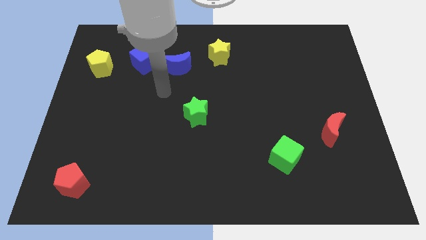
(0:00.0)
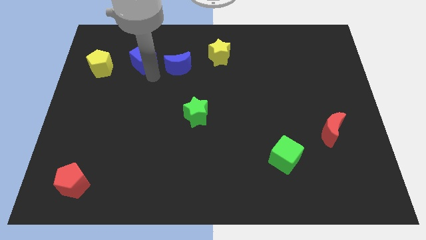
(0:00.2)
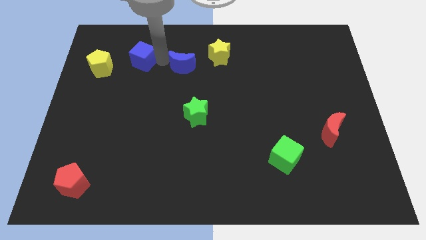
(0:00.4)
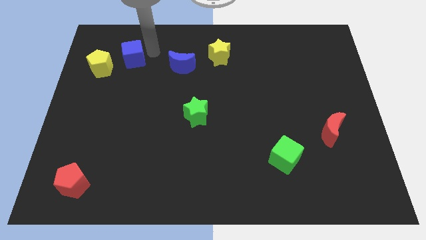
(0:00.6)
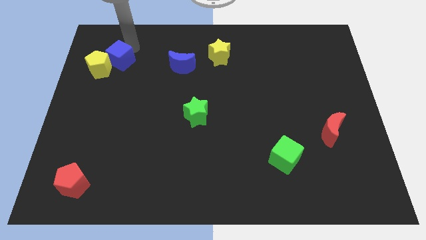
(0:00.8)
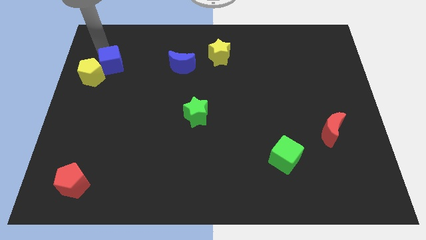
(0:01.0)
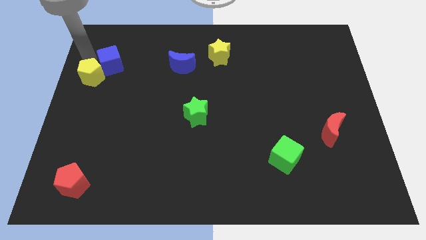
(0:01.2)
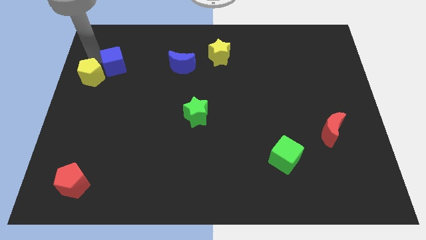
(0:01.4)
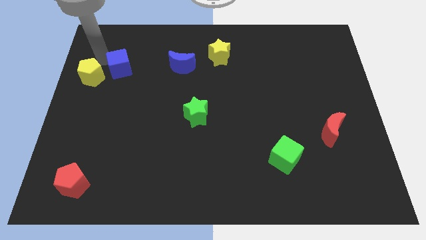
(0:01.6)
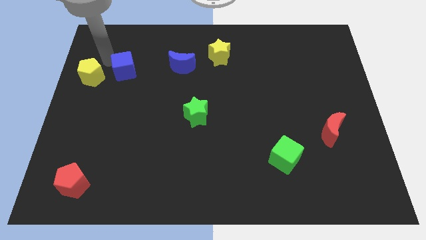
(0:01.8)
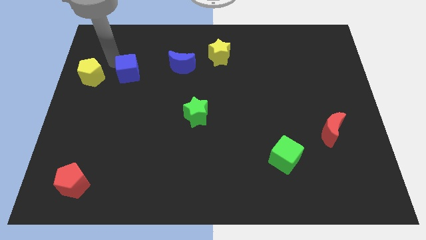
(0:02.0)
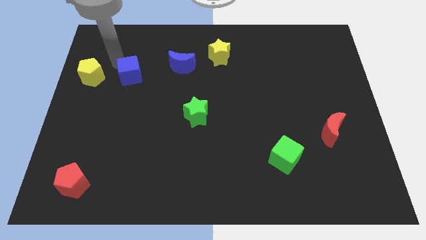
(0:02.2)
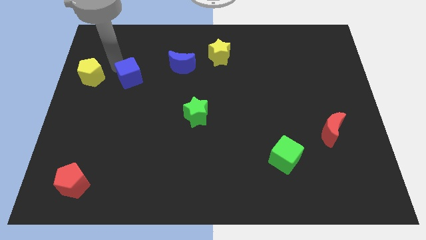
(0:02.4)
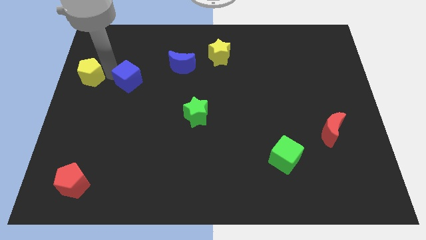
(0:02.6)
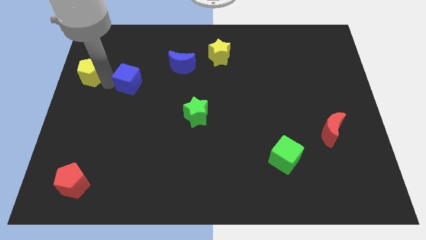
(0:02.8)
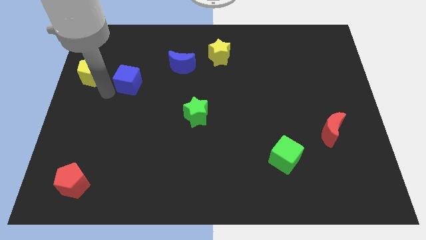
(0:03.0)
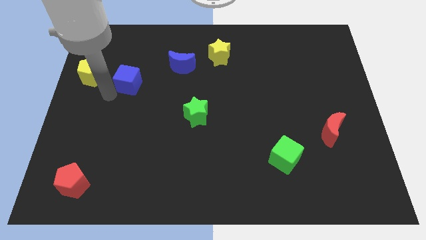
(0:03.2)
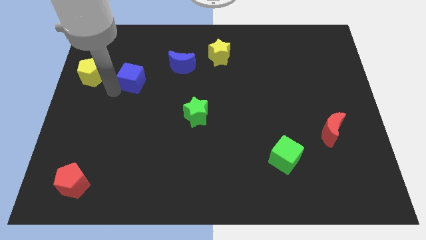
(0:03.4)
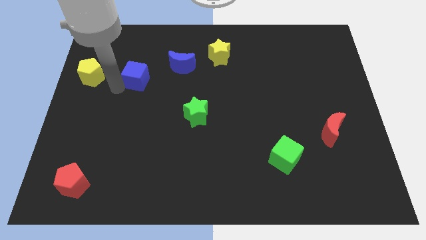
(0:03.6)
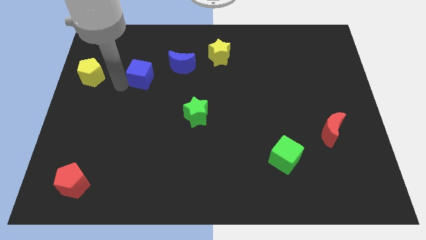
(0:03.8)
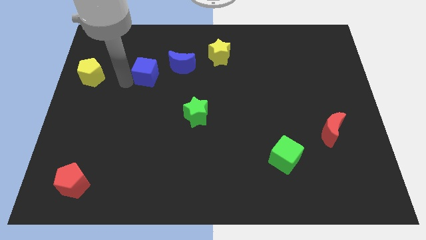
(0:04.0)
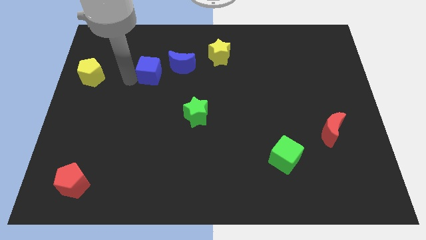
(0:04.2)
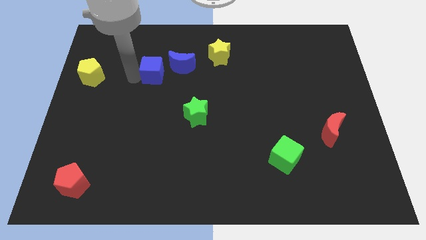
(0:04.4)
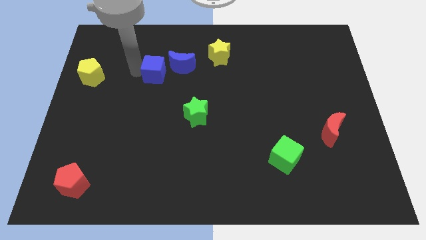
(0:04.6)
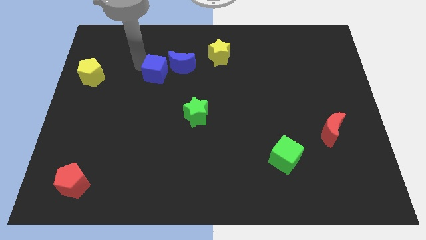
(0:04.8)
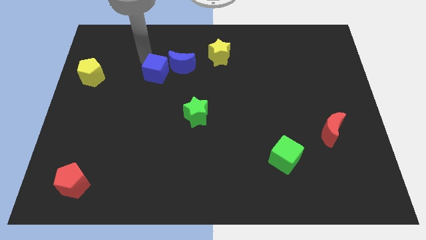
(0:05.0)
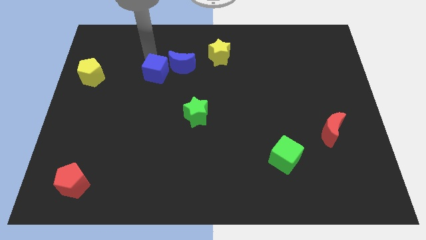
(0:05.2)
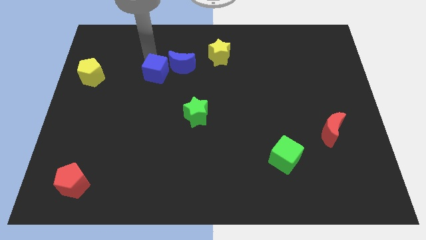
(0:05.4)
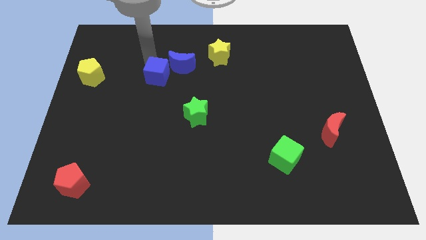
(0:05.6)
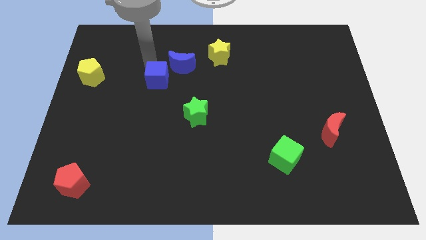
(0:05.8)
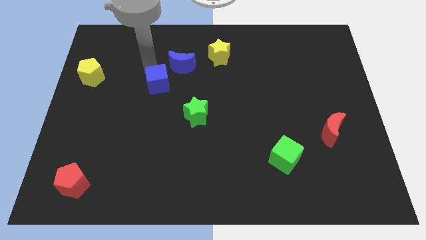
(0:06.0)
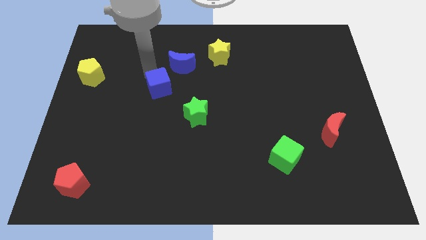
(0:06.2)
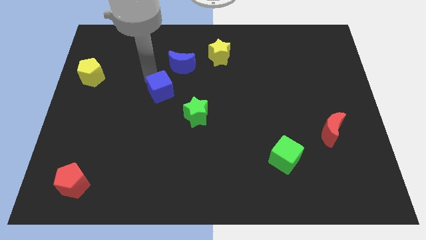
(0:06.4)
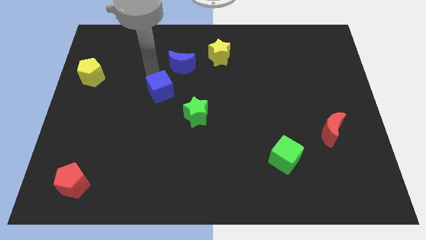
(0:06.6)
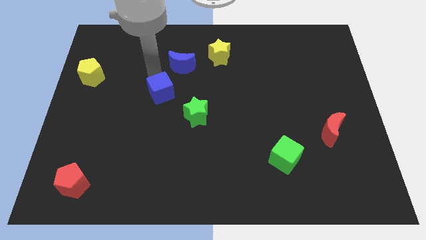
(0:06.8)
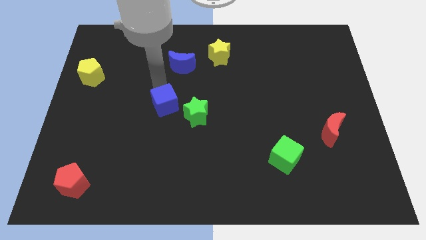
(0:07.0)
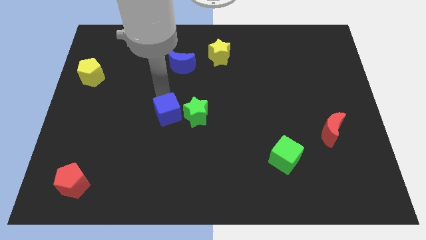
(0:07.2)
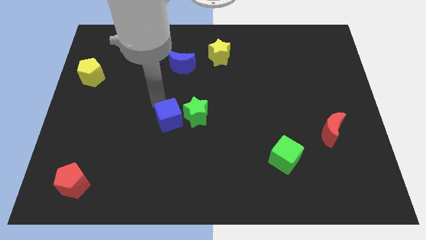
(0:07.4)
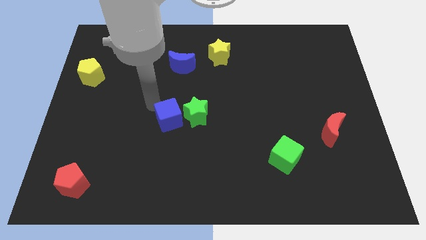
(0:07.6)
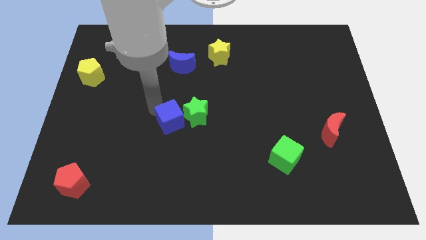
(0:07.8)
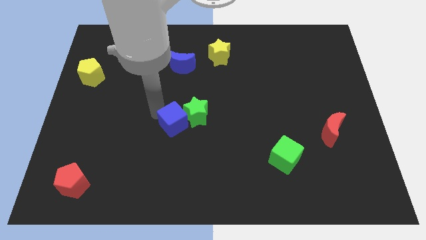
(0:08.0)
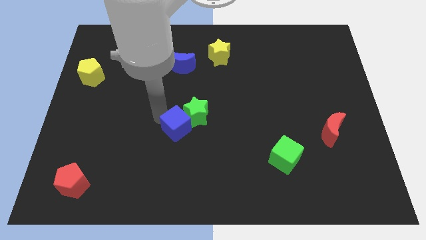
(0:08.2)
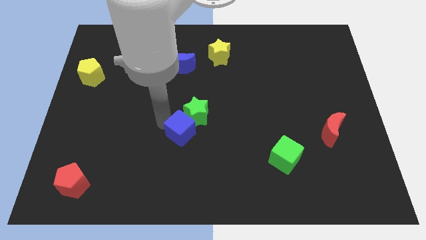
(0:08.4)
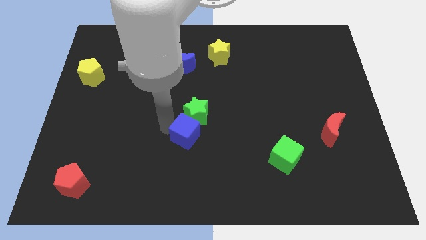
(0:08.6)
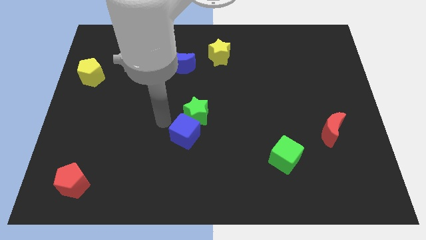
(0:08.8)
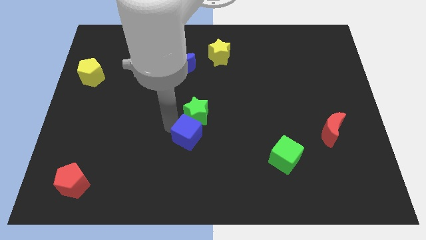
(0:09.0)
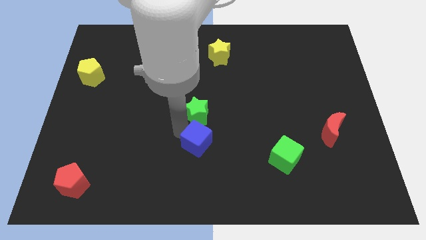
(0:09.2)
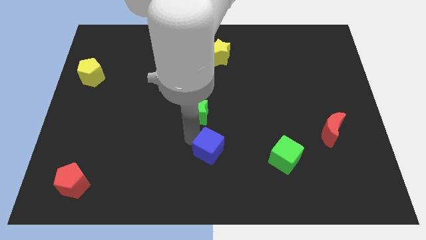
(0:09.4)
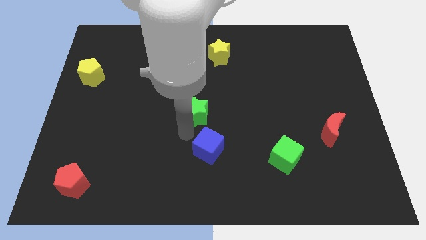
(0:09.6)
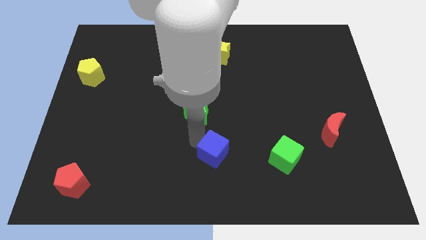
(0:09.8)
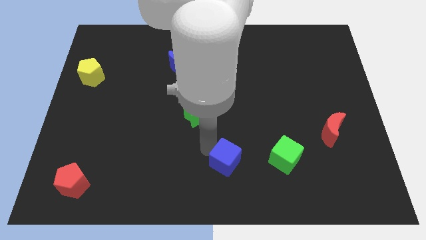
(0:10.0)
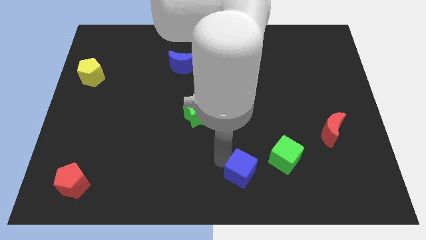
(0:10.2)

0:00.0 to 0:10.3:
put the blue cube to the bottom left side of the green cube

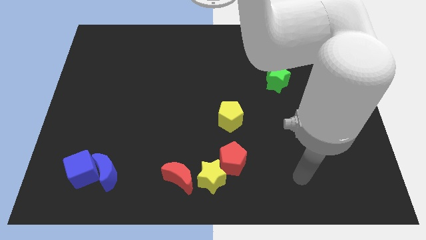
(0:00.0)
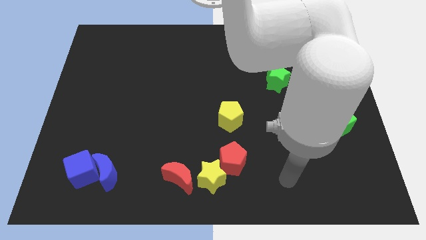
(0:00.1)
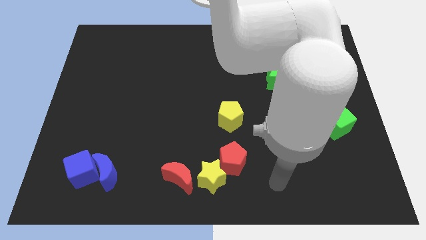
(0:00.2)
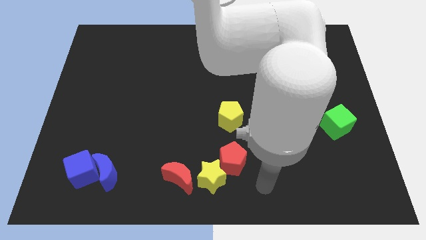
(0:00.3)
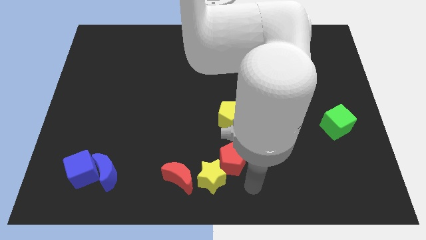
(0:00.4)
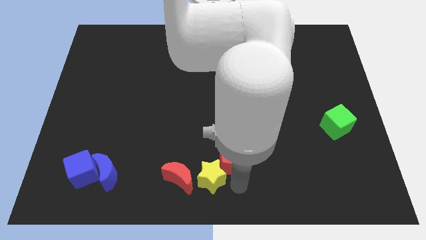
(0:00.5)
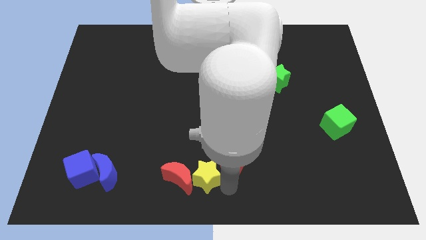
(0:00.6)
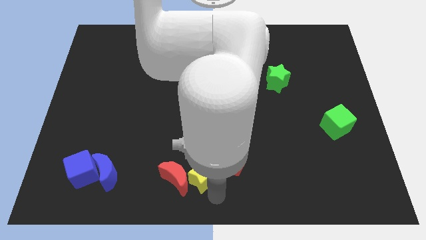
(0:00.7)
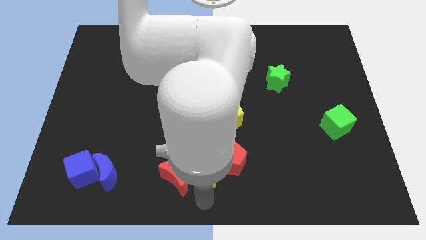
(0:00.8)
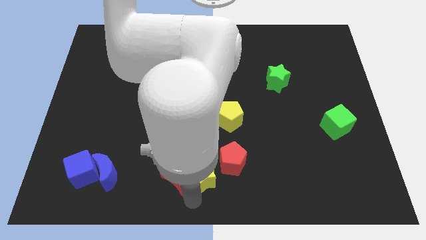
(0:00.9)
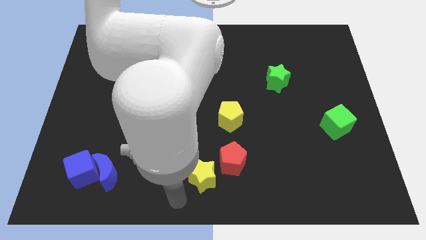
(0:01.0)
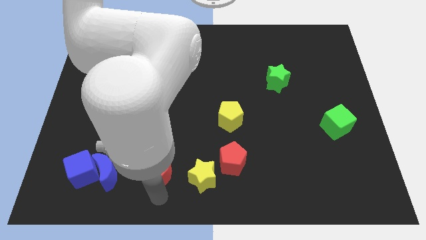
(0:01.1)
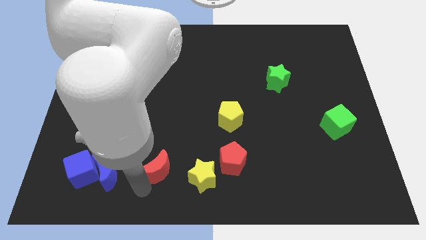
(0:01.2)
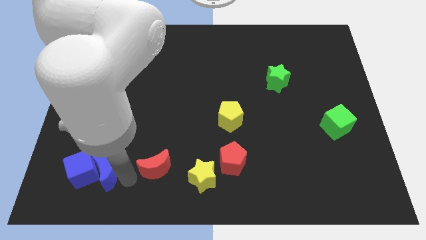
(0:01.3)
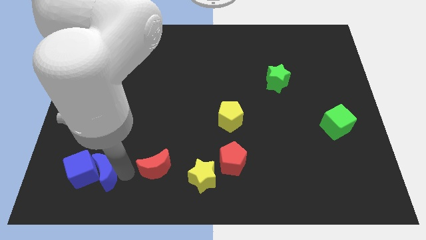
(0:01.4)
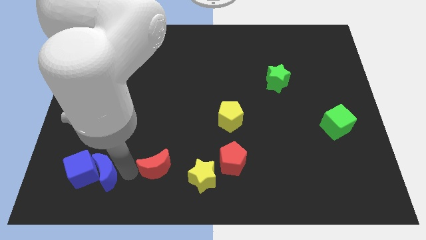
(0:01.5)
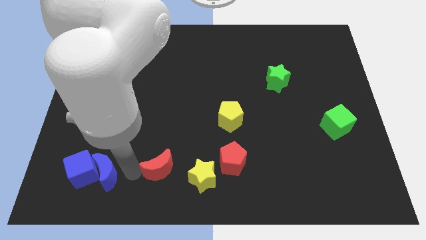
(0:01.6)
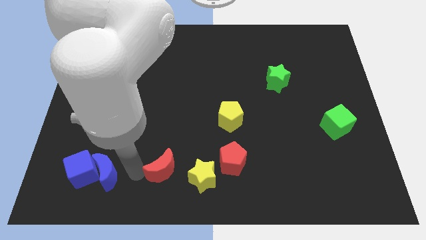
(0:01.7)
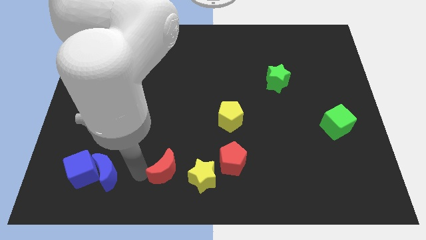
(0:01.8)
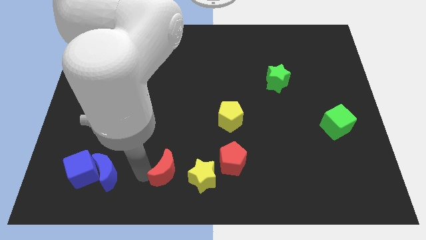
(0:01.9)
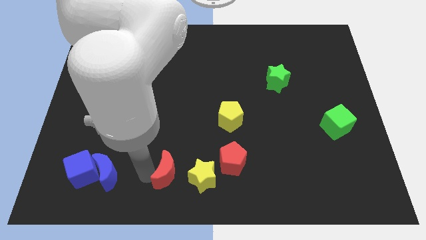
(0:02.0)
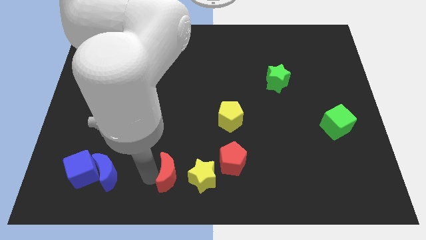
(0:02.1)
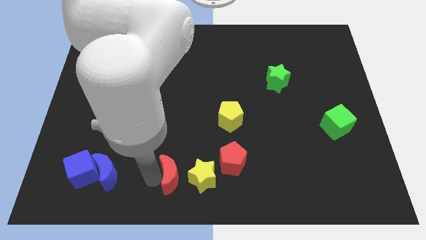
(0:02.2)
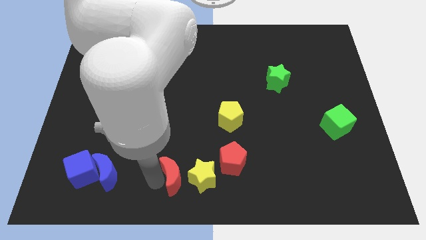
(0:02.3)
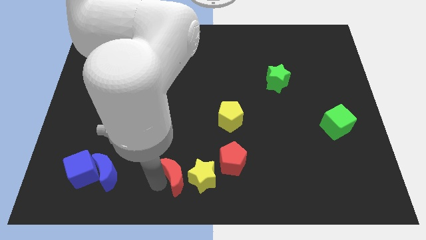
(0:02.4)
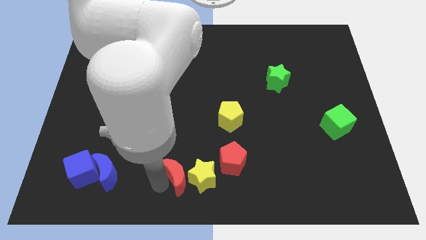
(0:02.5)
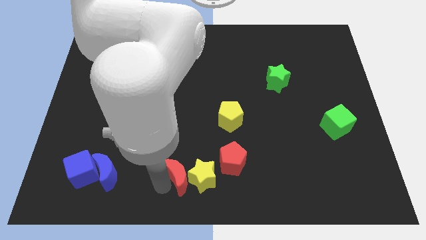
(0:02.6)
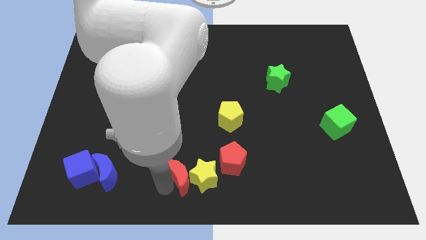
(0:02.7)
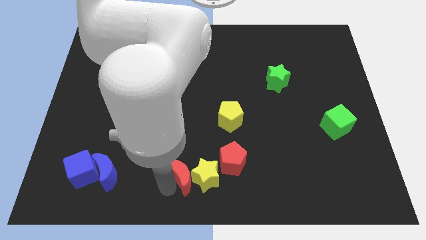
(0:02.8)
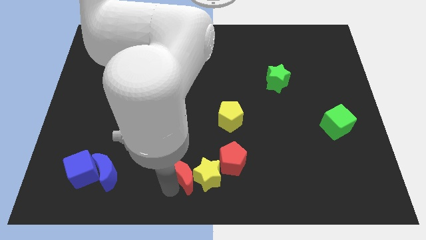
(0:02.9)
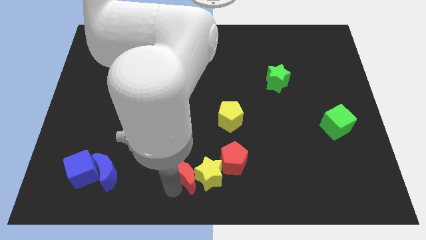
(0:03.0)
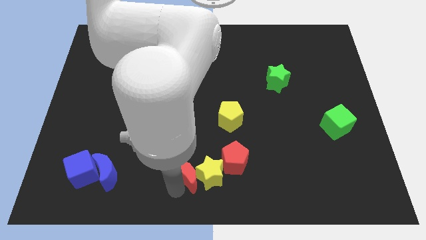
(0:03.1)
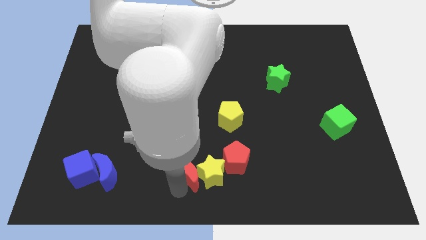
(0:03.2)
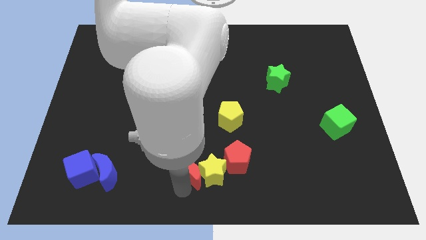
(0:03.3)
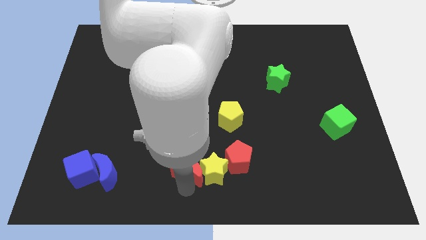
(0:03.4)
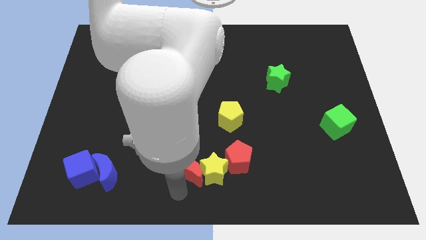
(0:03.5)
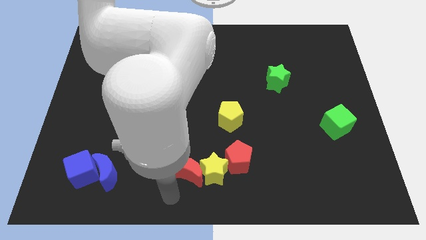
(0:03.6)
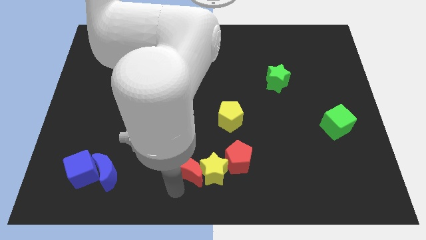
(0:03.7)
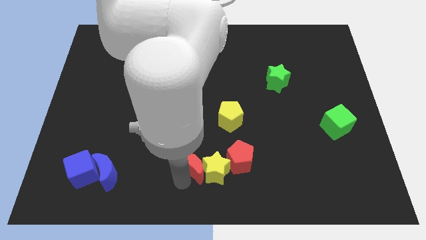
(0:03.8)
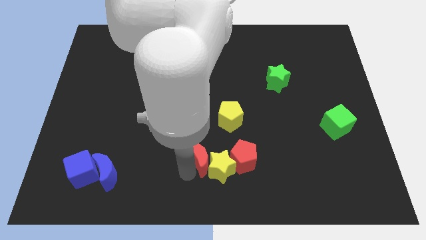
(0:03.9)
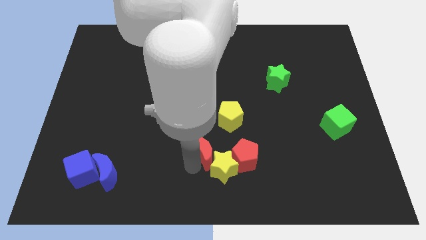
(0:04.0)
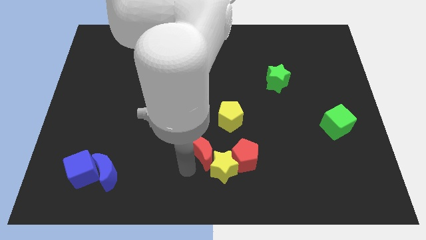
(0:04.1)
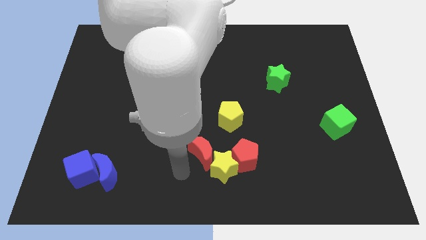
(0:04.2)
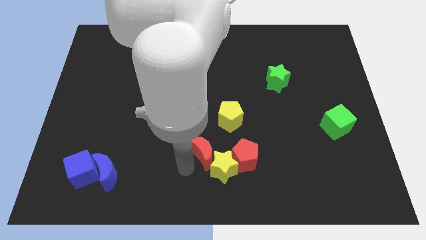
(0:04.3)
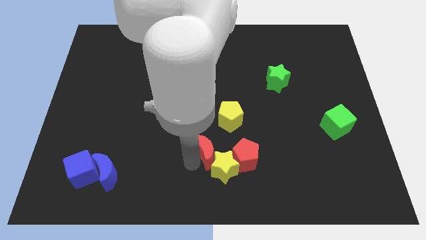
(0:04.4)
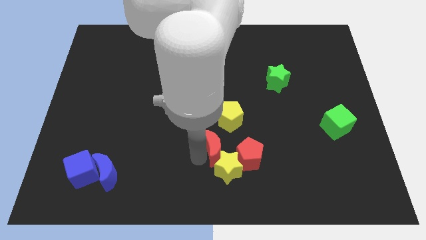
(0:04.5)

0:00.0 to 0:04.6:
move the red moon to the top left of the red pentagon
